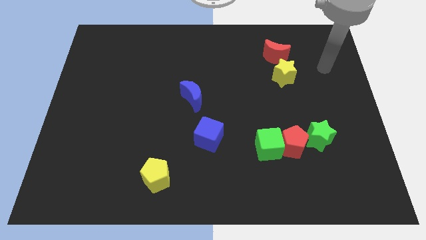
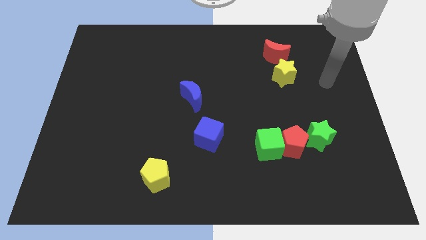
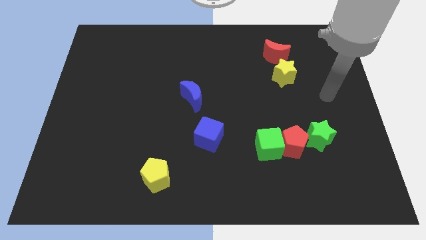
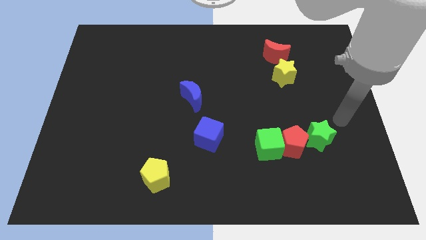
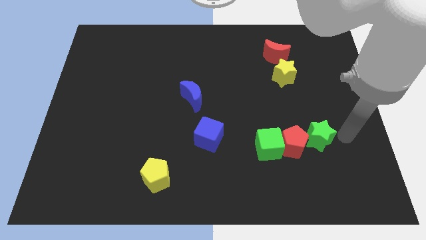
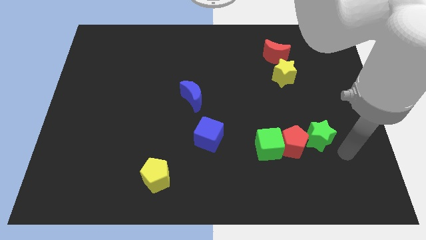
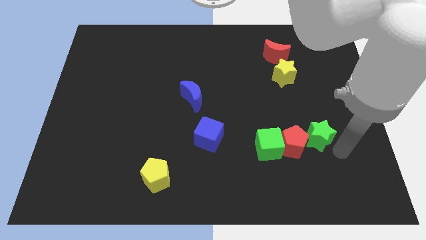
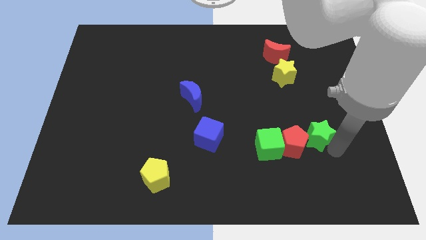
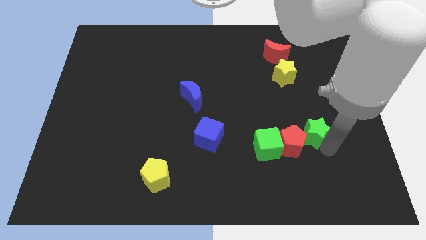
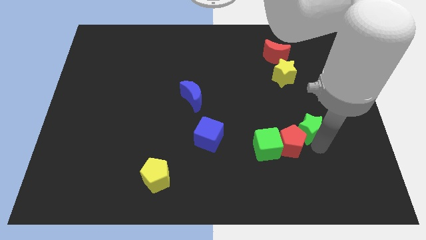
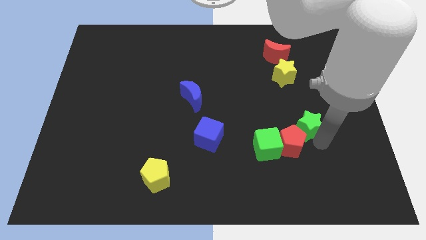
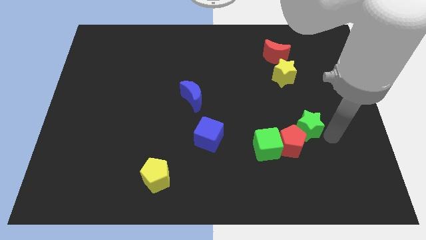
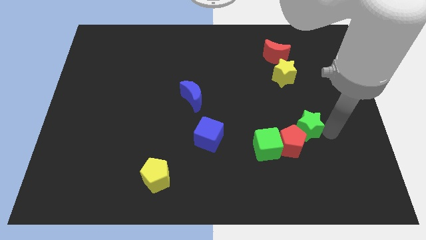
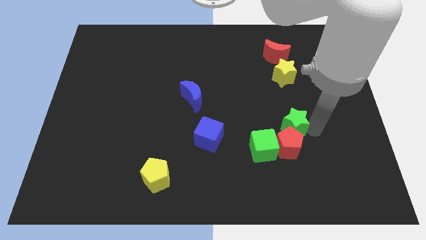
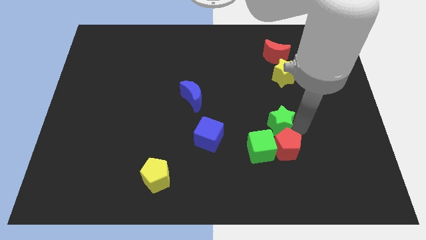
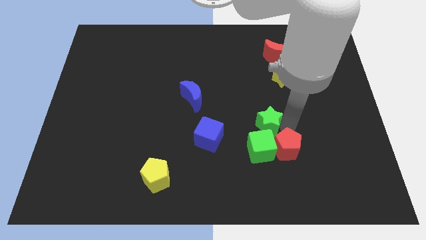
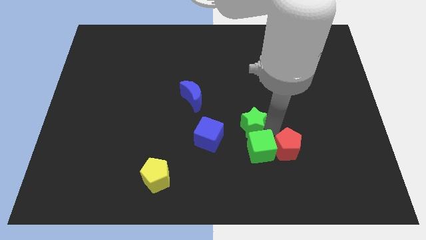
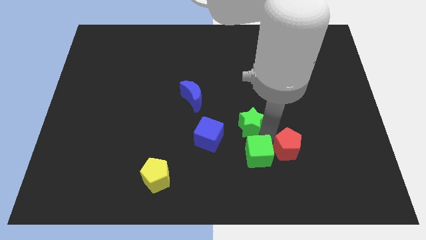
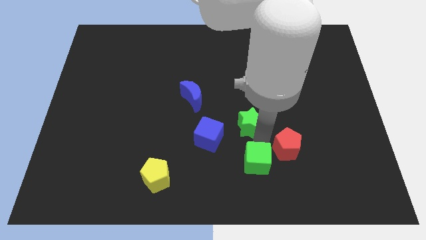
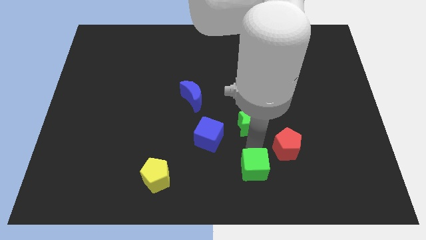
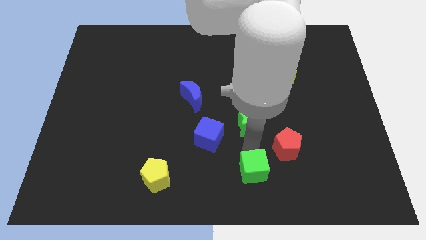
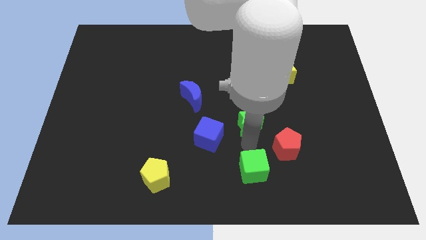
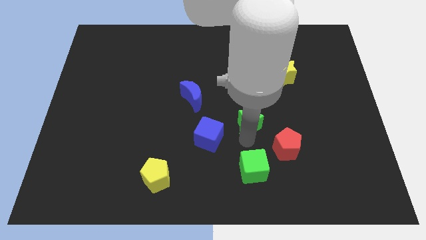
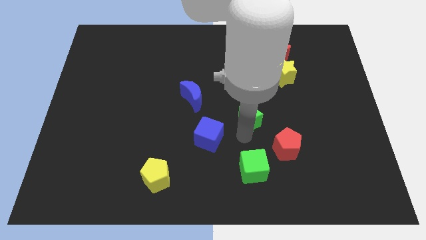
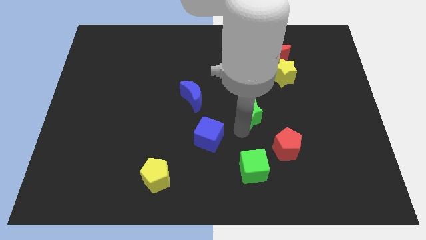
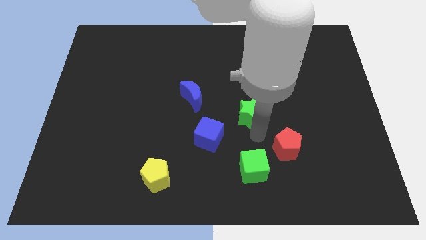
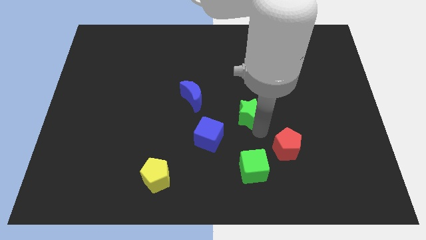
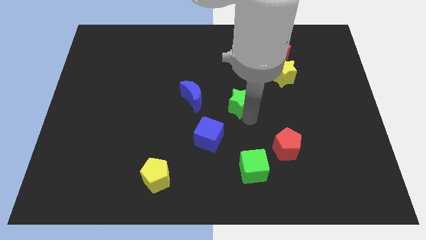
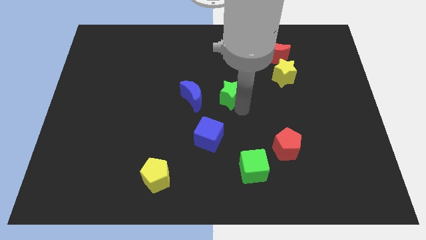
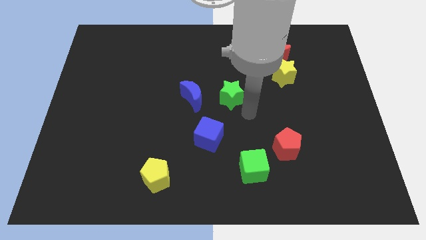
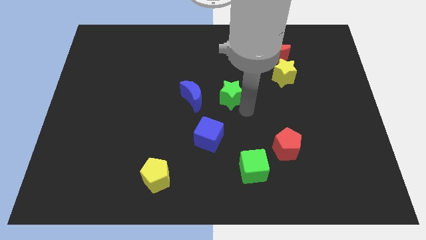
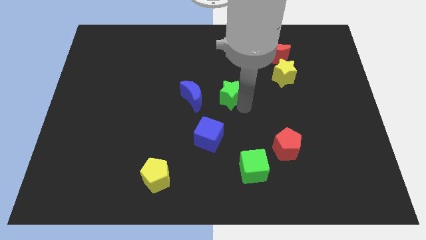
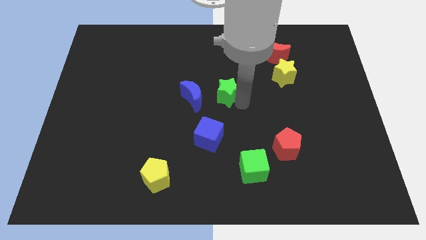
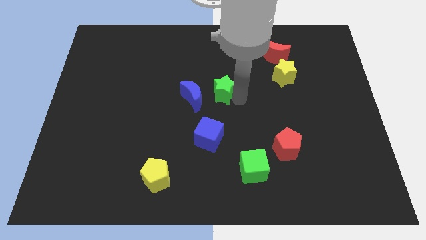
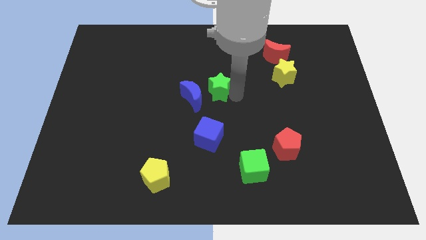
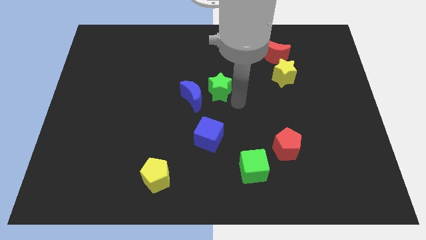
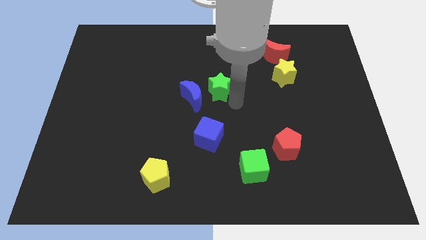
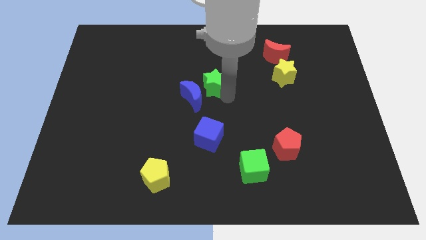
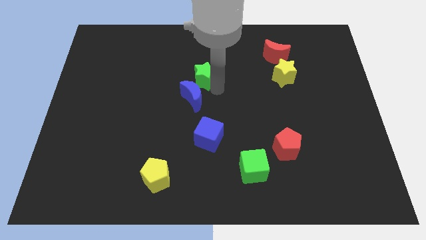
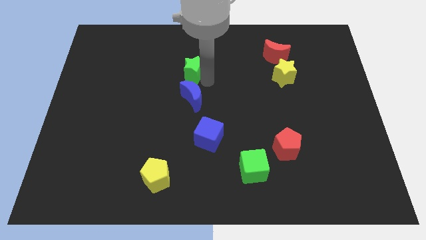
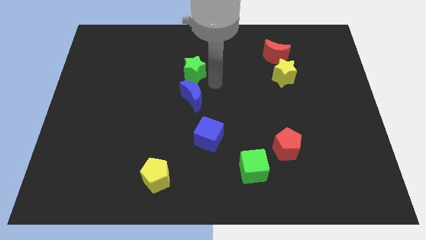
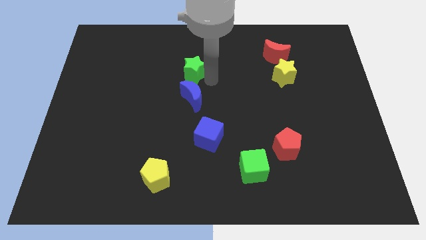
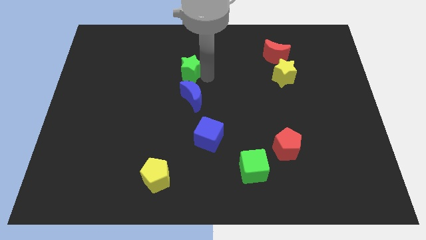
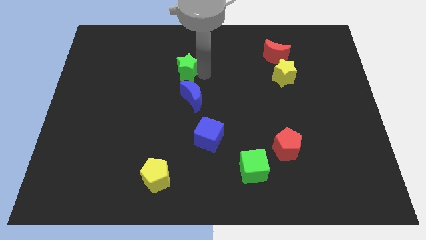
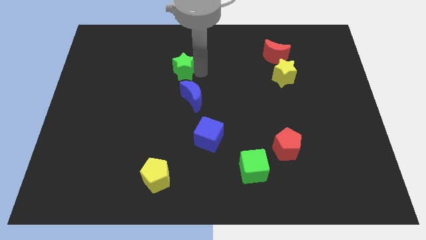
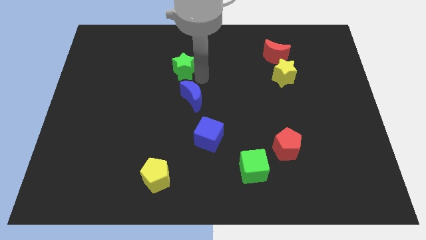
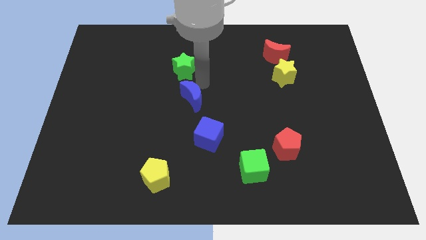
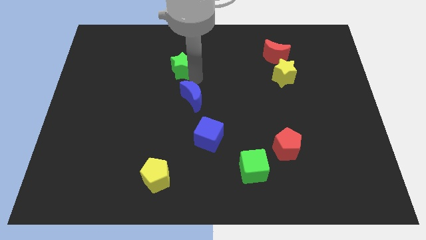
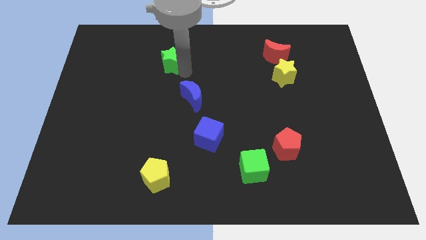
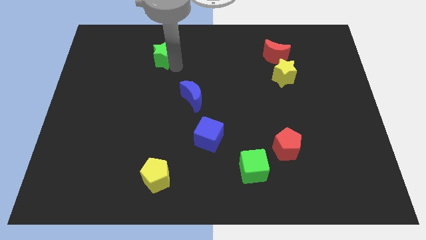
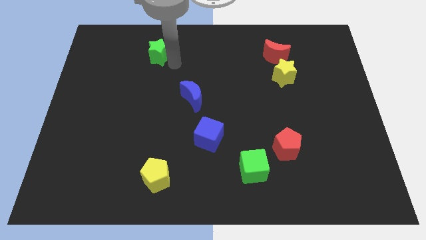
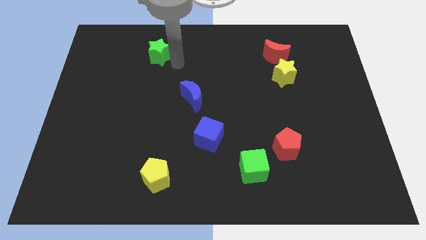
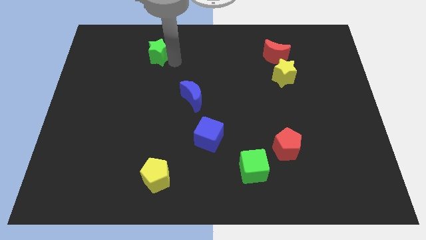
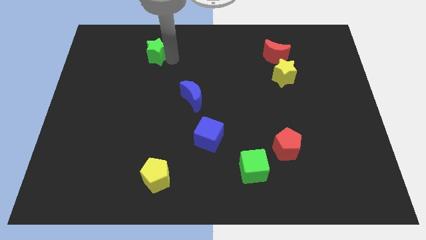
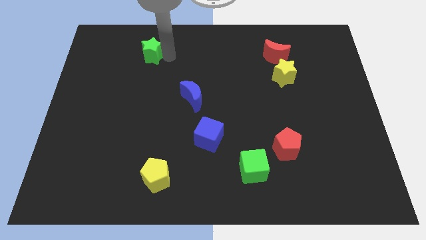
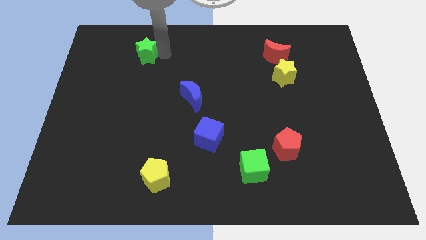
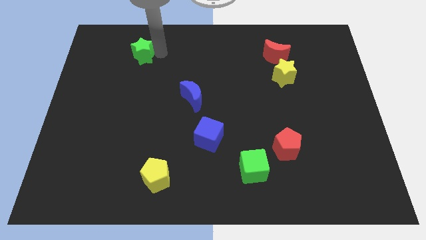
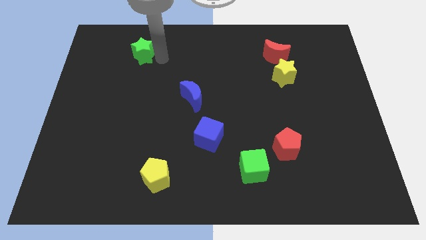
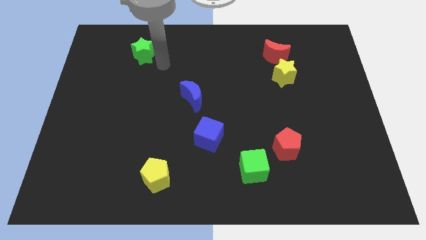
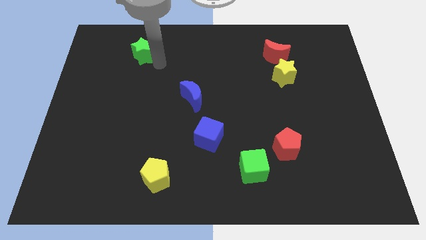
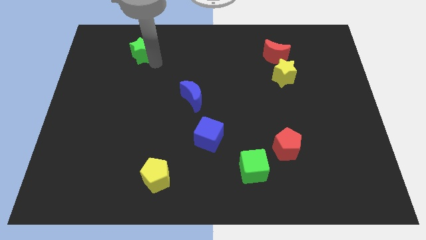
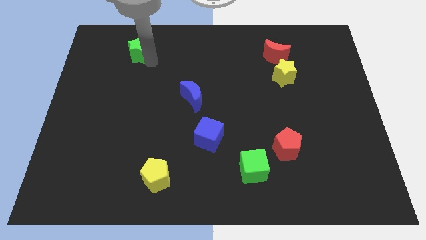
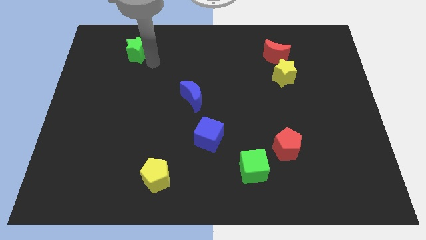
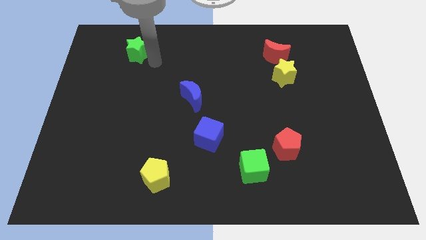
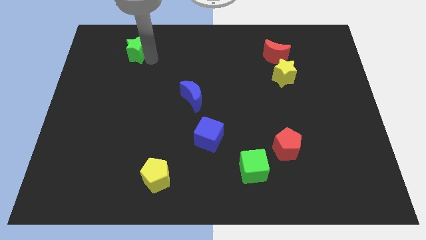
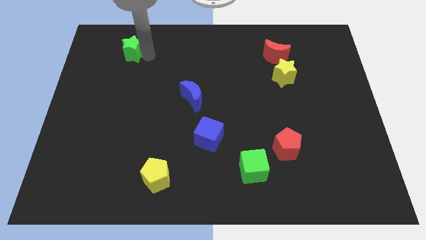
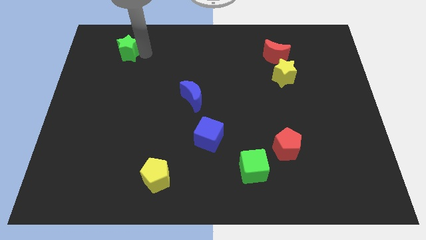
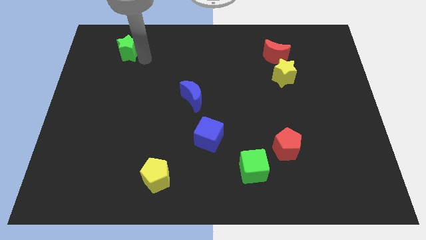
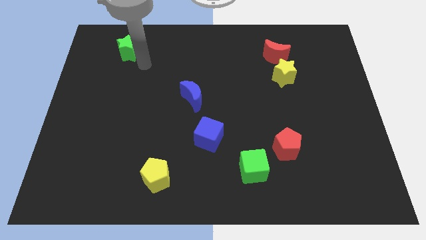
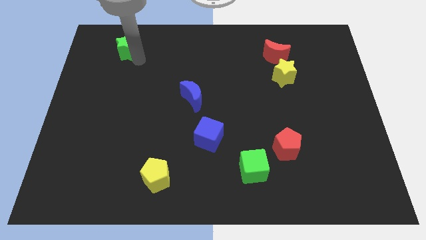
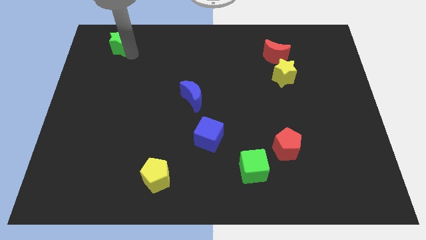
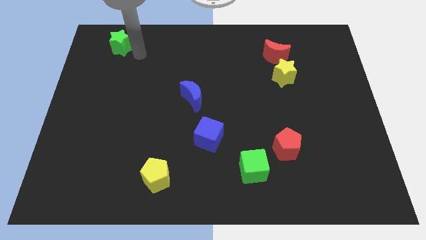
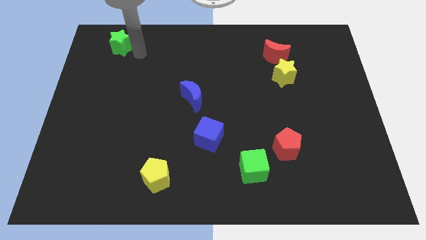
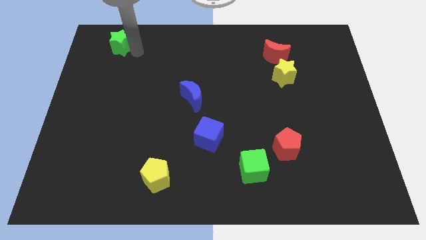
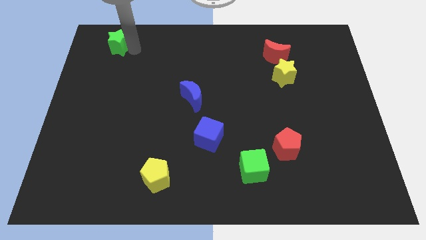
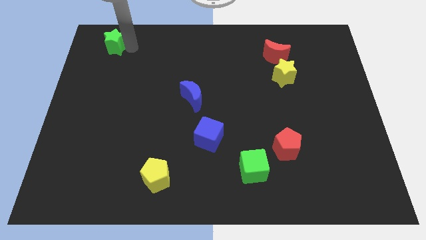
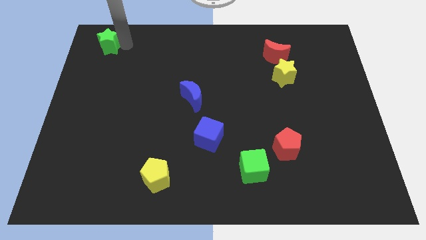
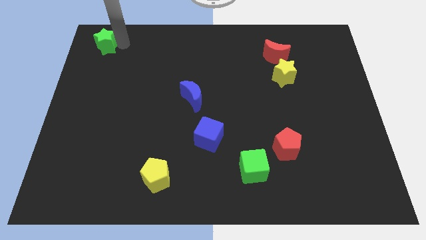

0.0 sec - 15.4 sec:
move the green star to the top left of the board
